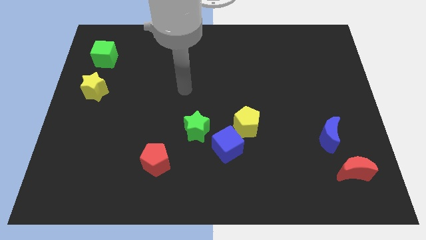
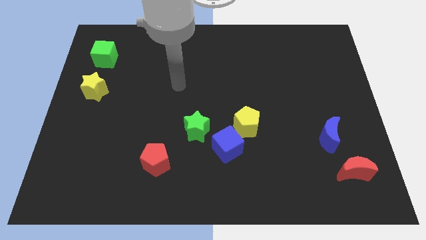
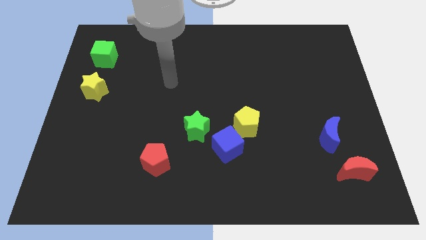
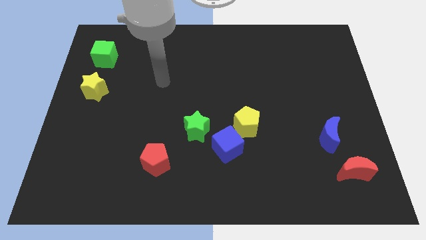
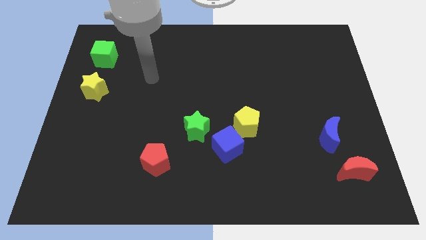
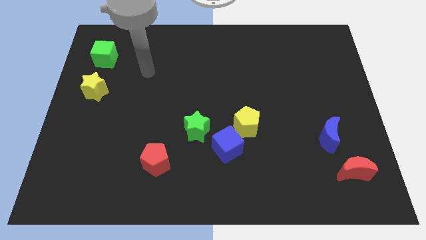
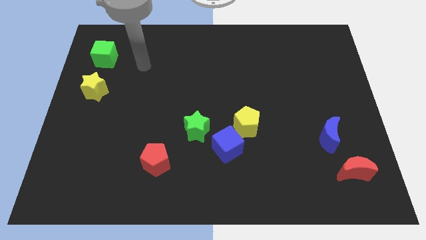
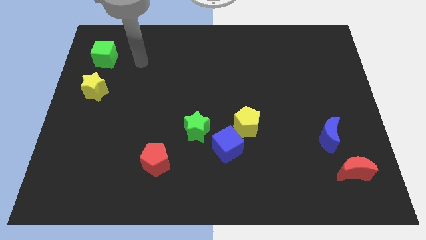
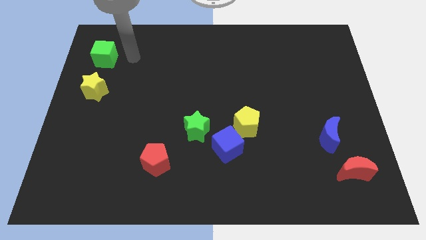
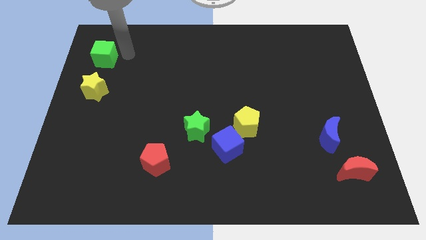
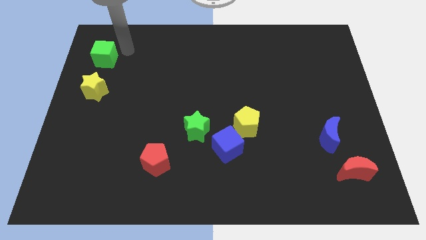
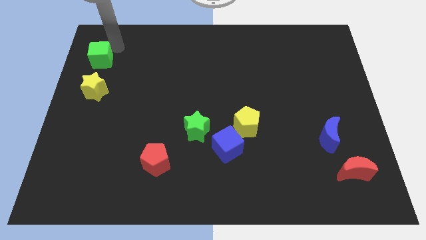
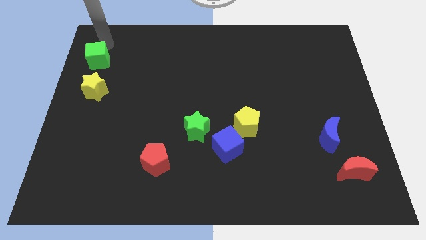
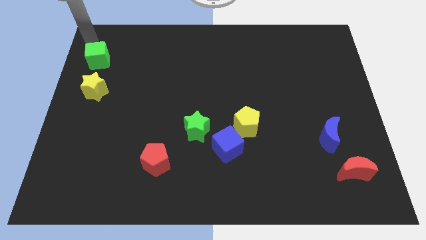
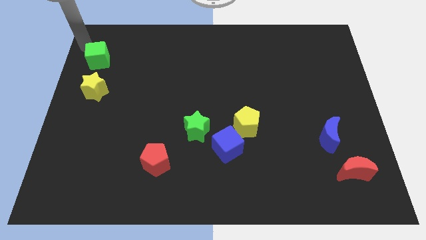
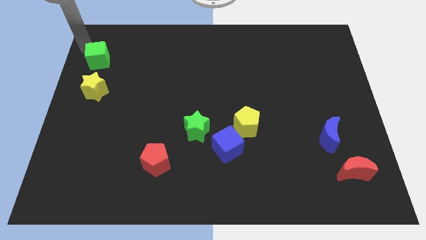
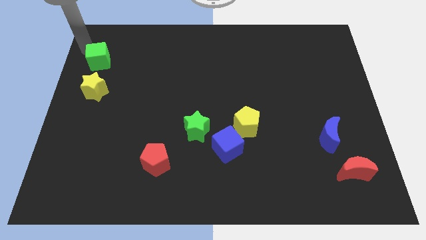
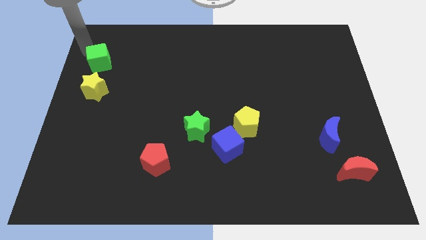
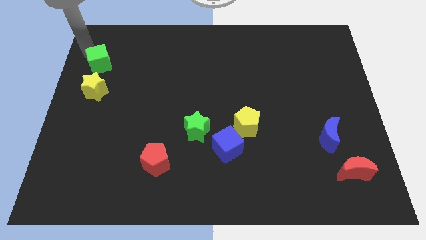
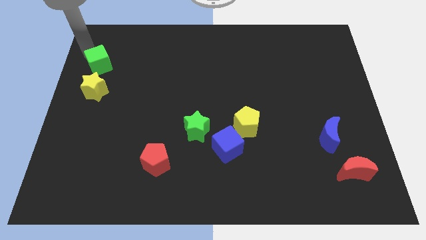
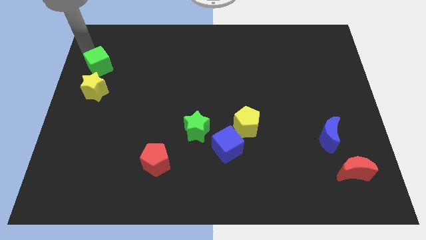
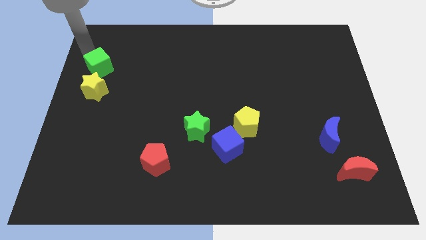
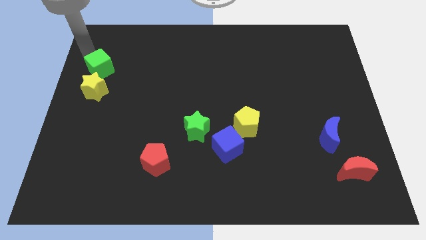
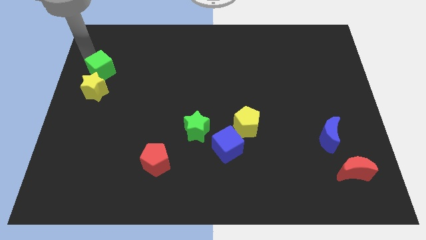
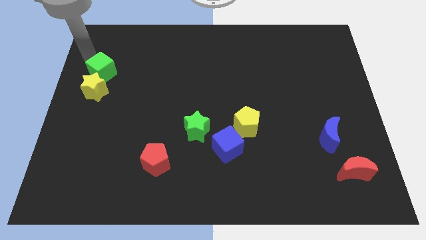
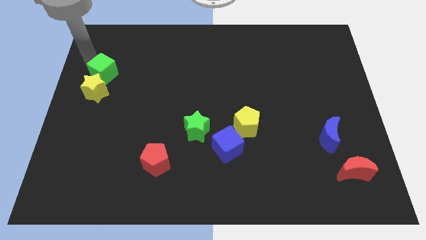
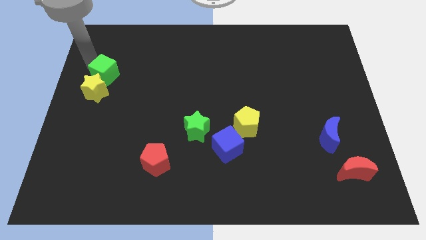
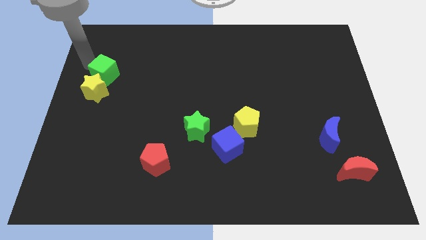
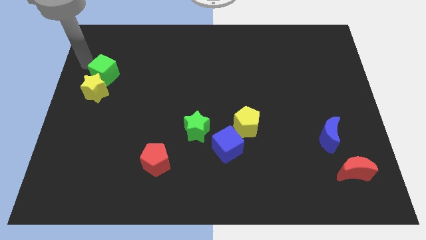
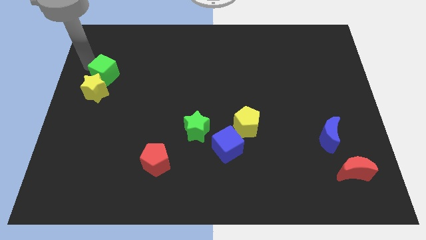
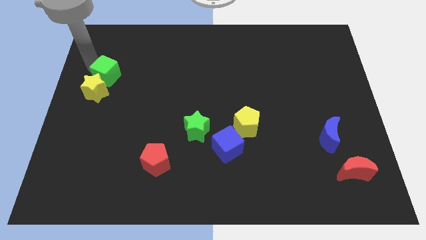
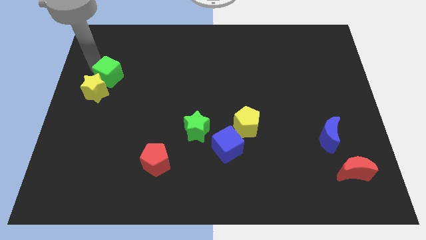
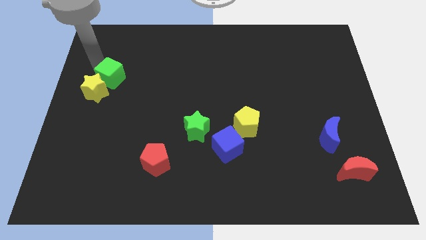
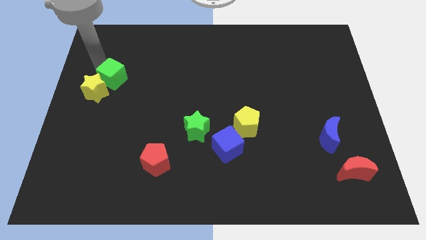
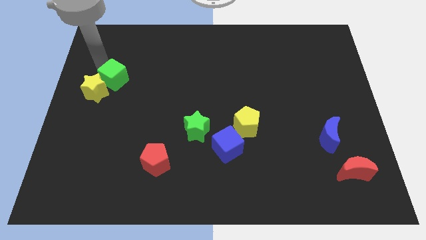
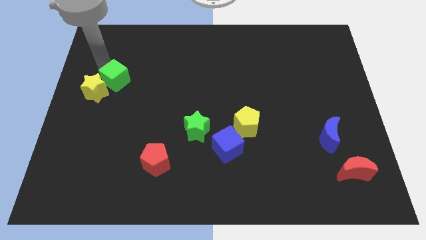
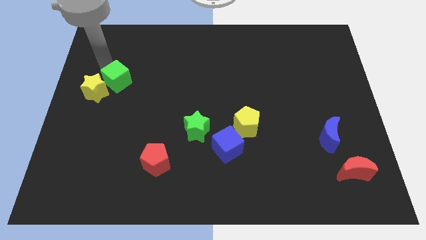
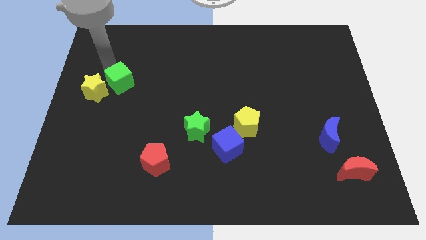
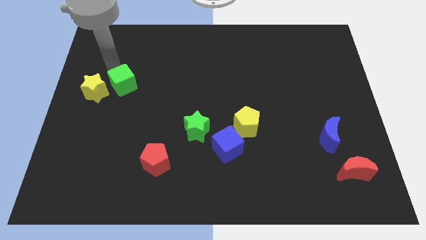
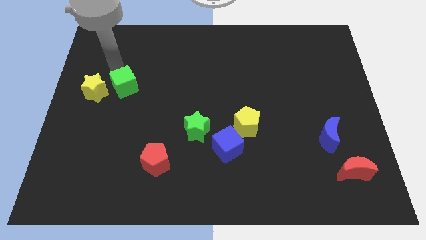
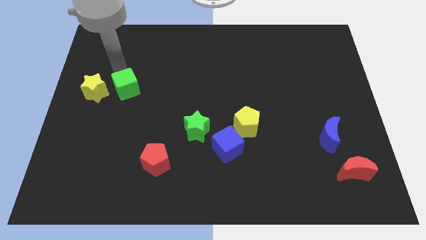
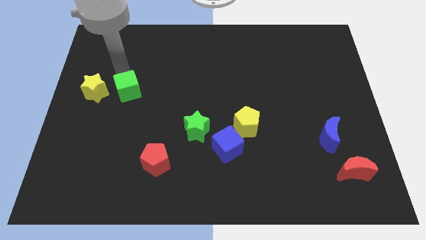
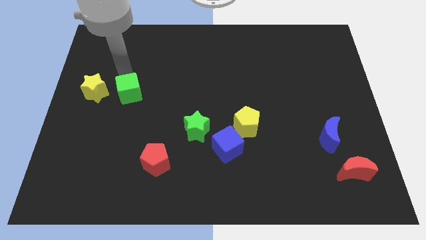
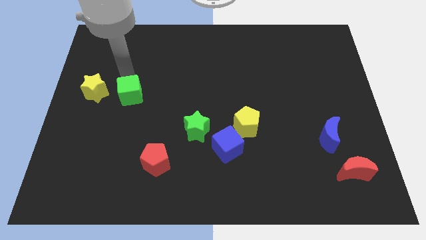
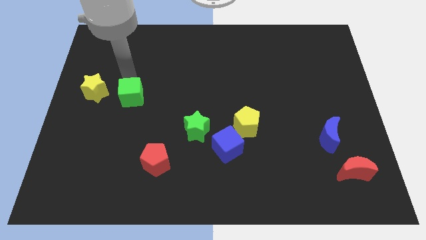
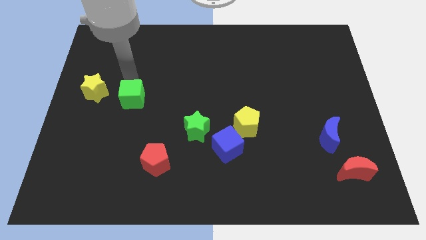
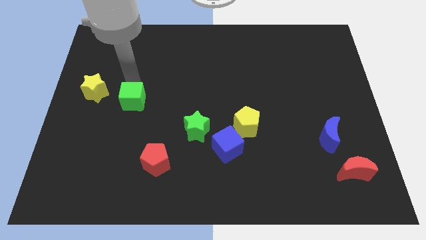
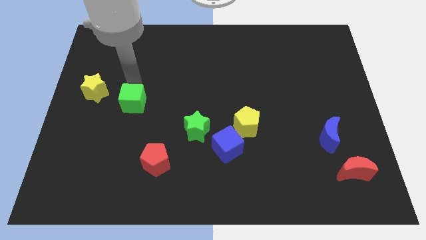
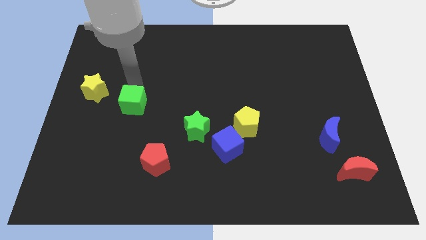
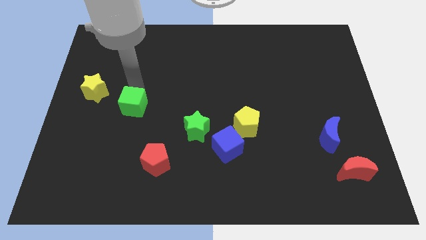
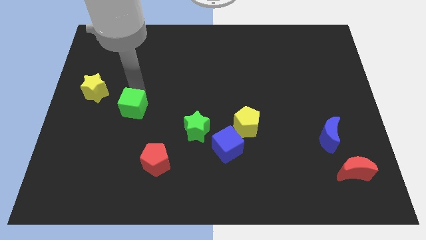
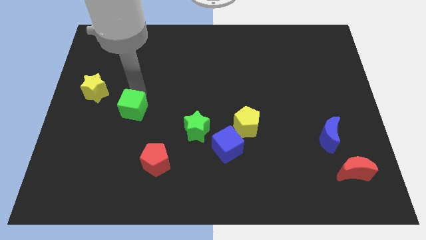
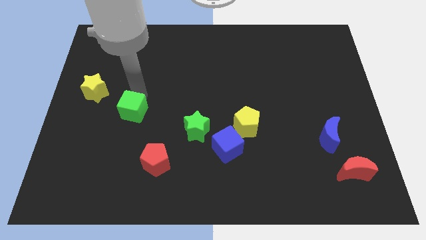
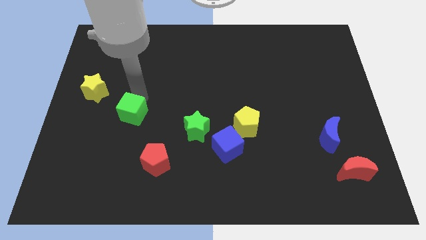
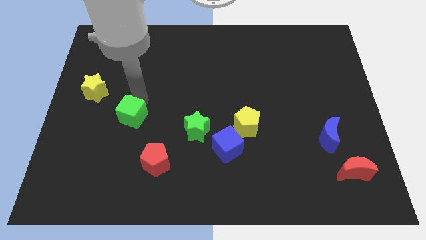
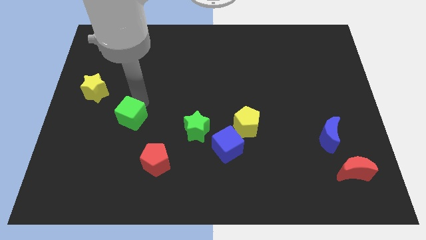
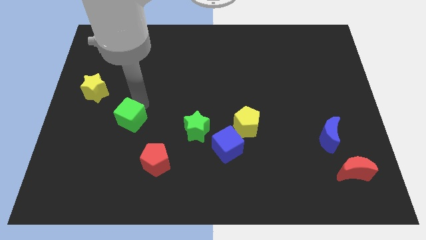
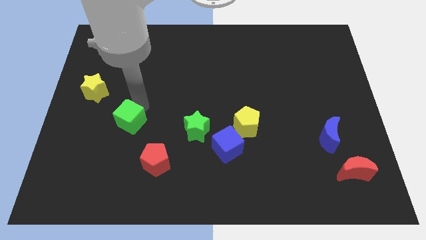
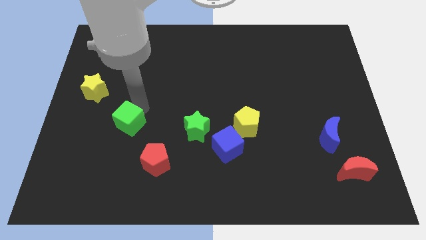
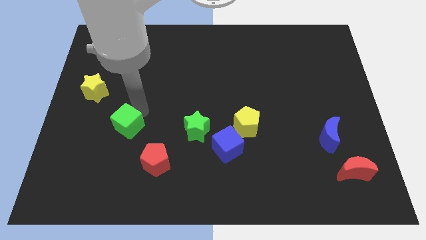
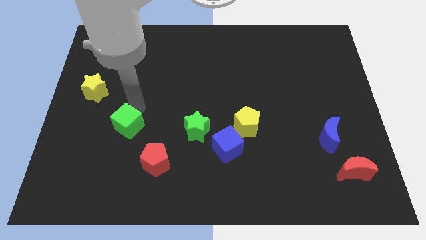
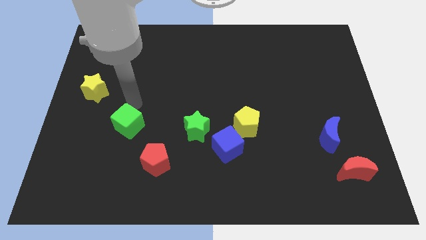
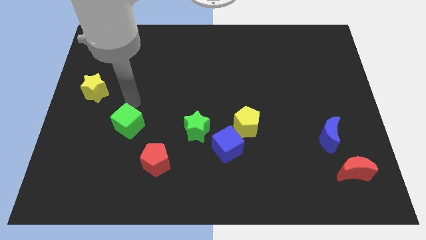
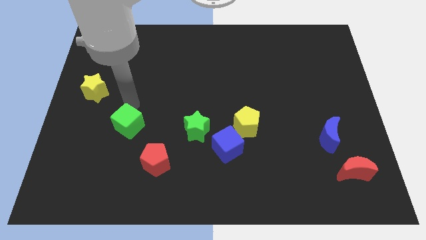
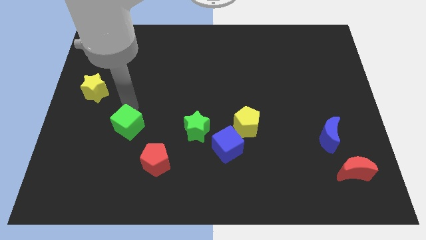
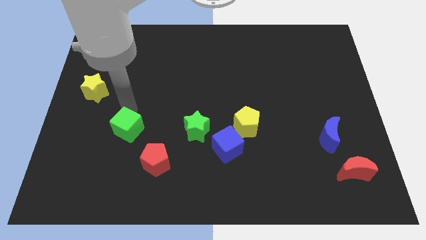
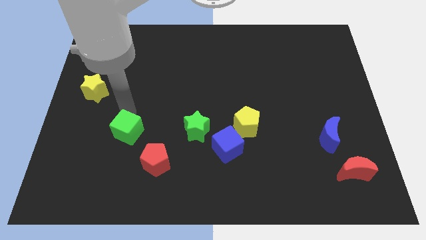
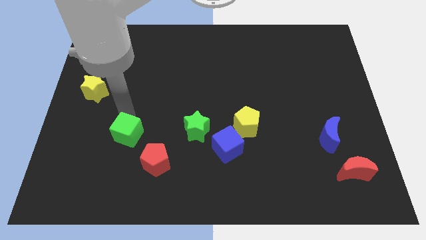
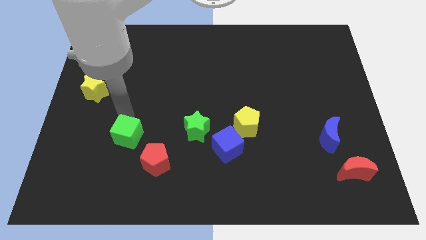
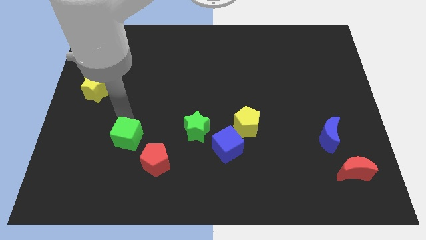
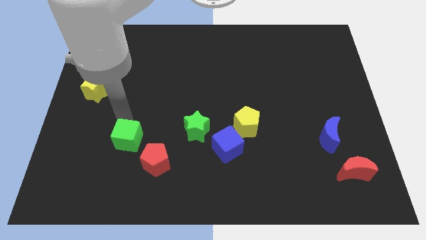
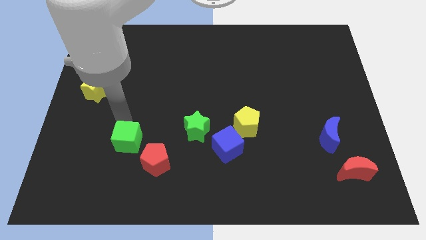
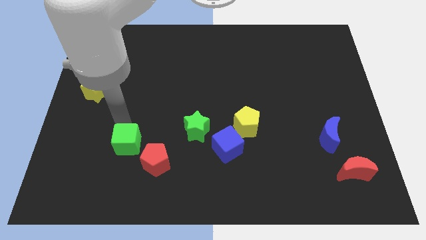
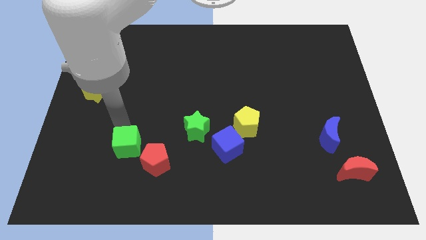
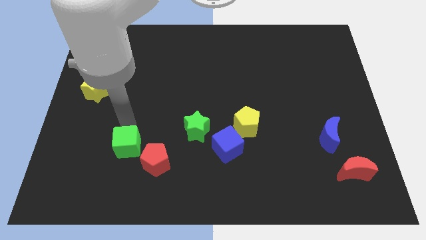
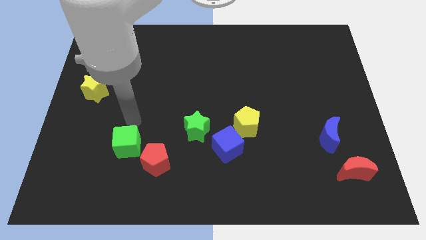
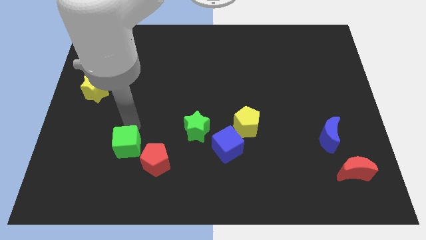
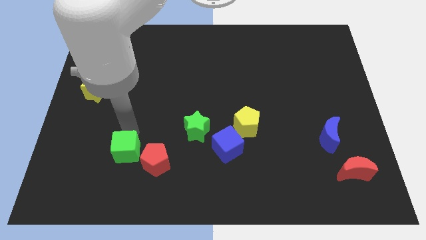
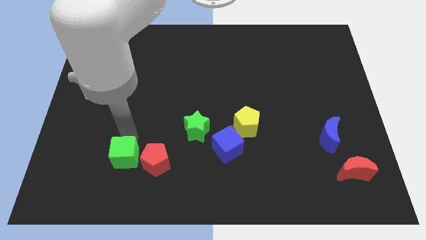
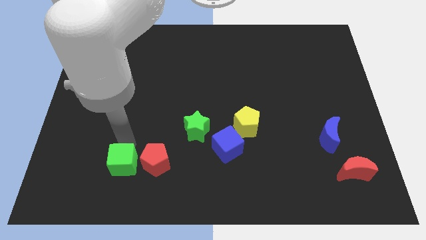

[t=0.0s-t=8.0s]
put the green cube to the bottom left of the red pentagon
